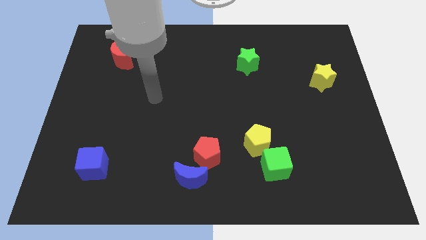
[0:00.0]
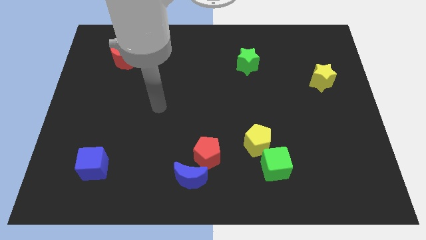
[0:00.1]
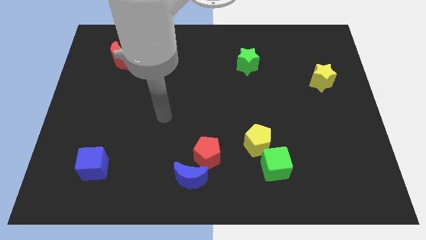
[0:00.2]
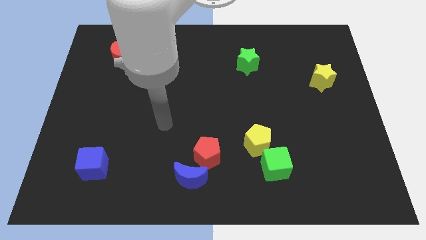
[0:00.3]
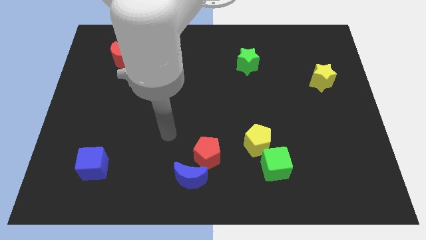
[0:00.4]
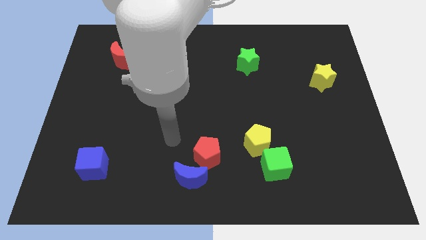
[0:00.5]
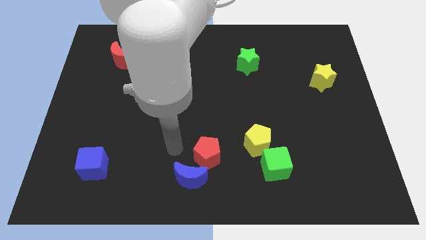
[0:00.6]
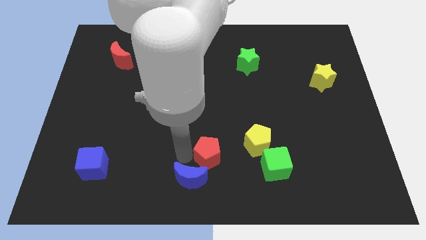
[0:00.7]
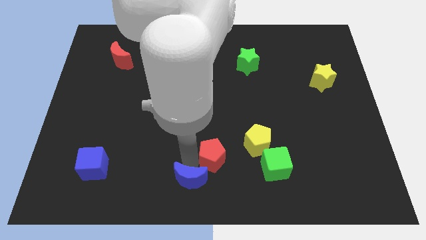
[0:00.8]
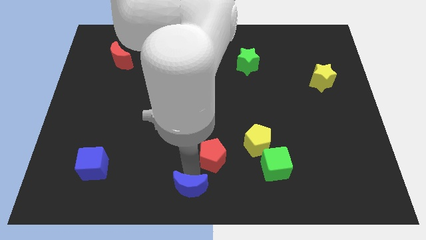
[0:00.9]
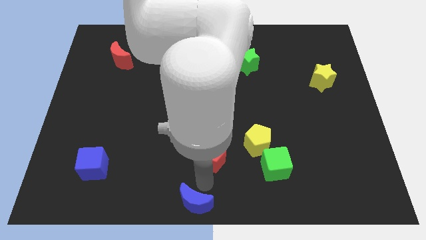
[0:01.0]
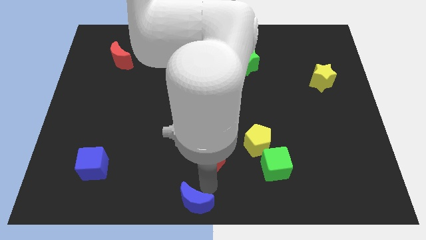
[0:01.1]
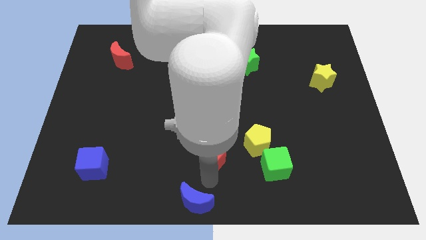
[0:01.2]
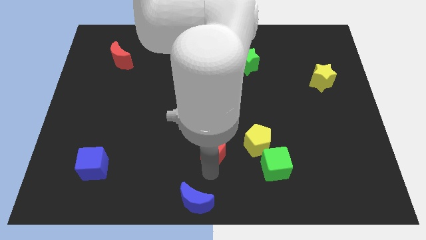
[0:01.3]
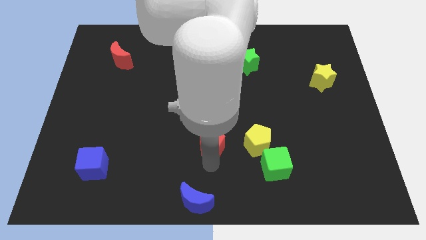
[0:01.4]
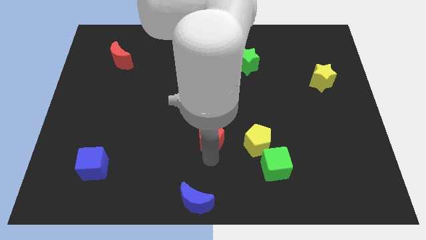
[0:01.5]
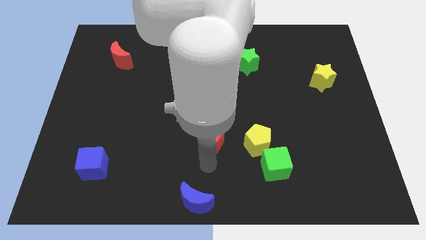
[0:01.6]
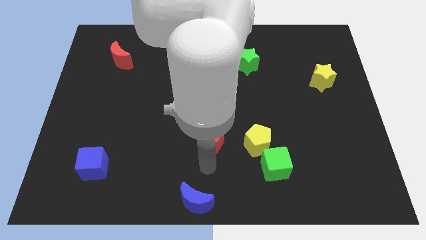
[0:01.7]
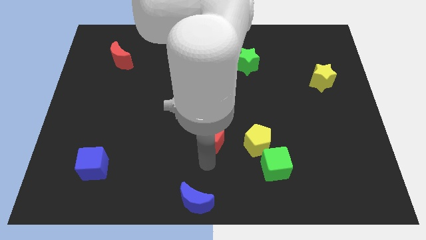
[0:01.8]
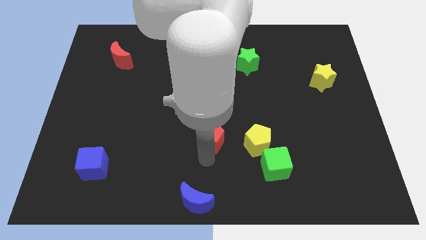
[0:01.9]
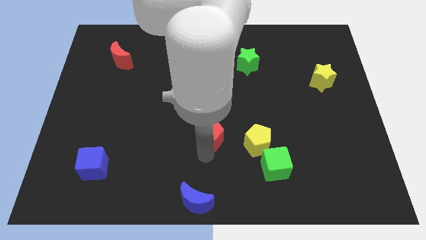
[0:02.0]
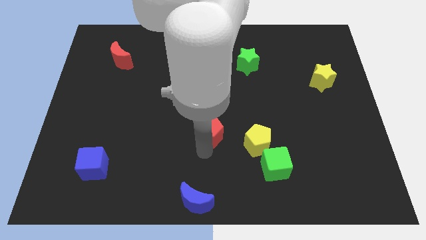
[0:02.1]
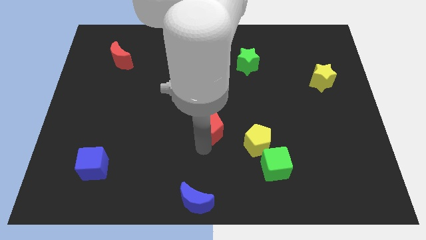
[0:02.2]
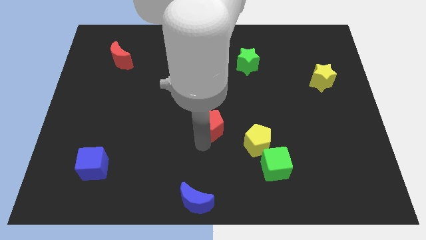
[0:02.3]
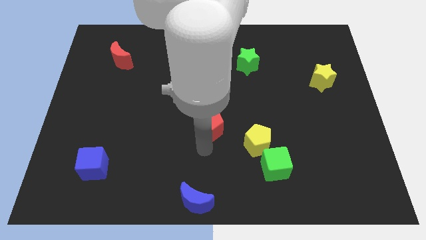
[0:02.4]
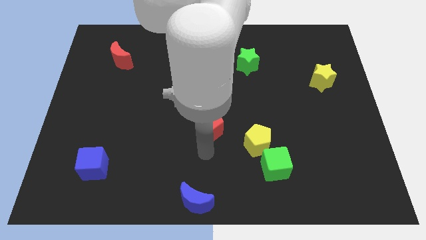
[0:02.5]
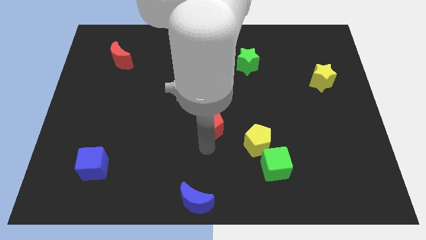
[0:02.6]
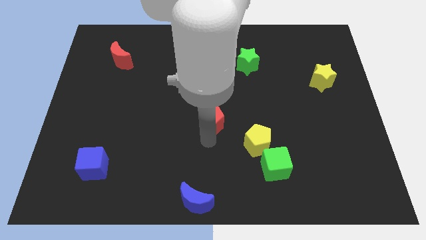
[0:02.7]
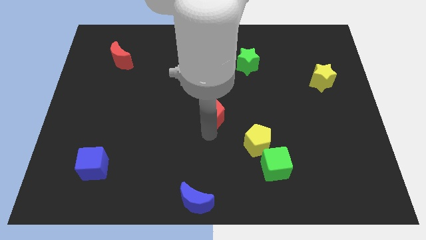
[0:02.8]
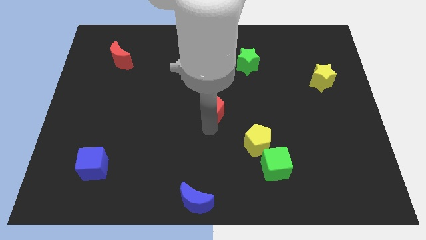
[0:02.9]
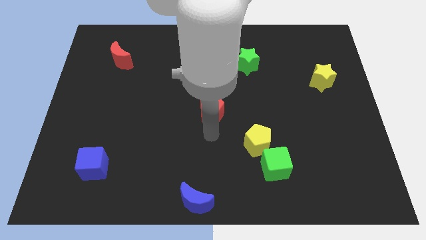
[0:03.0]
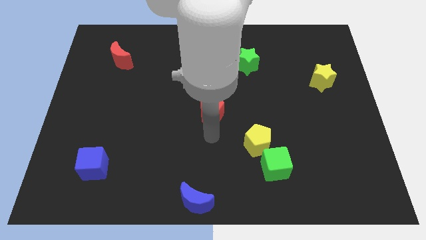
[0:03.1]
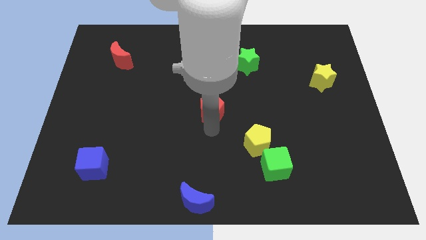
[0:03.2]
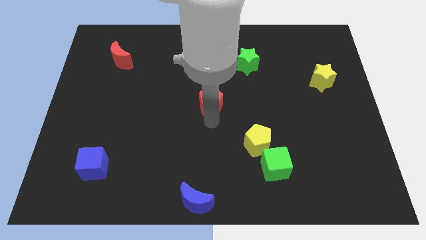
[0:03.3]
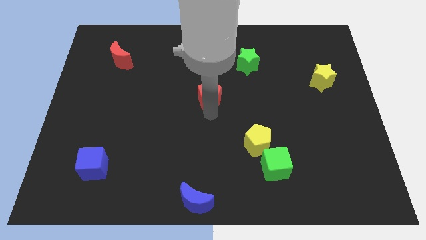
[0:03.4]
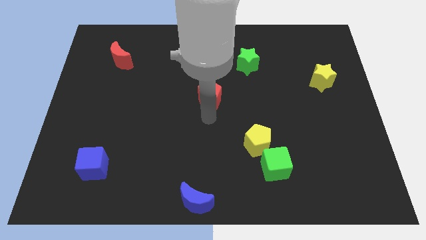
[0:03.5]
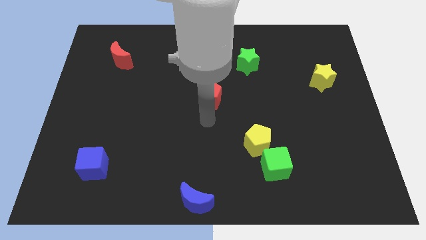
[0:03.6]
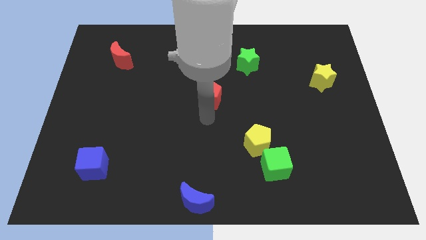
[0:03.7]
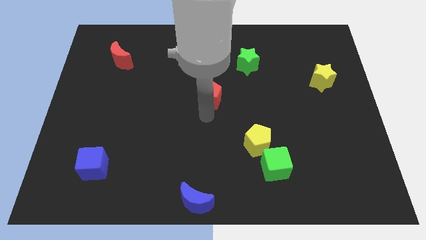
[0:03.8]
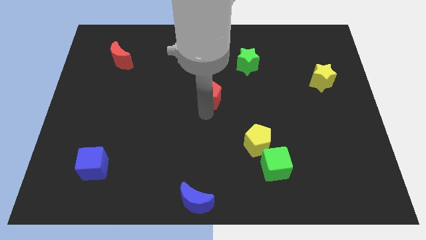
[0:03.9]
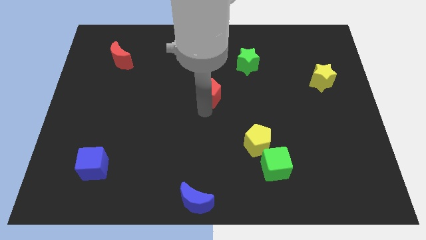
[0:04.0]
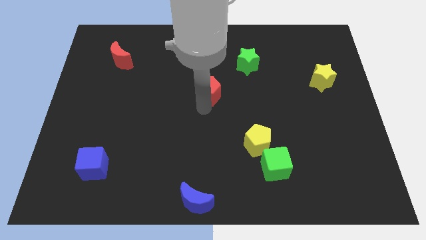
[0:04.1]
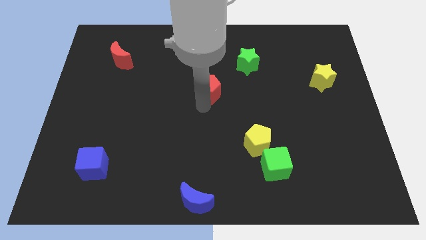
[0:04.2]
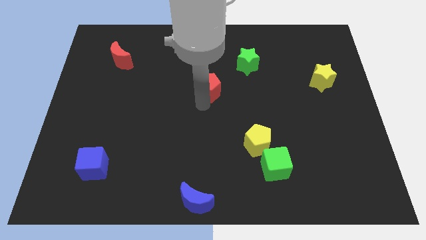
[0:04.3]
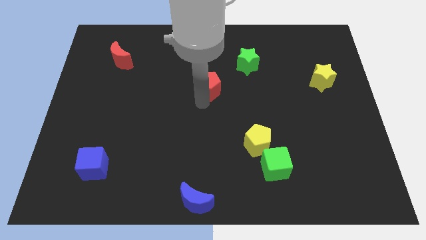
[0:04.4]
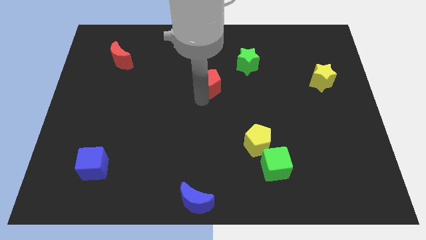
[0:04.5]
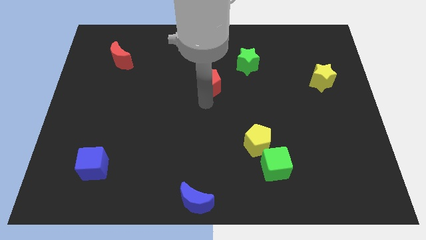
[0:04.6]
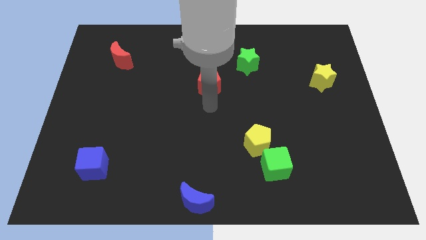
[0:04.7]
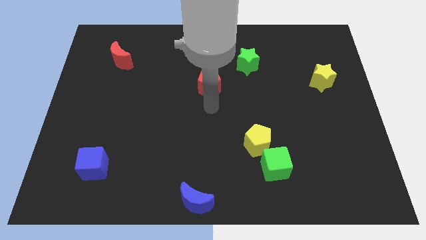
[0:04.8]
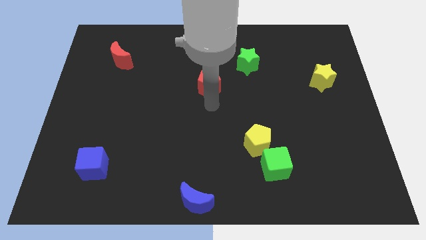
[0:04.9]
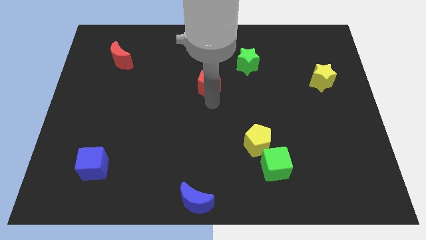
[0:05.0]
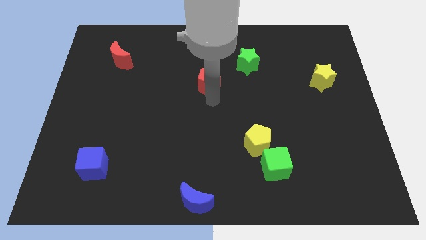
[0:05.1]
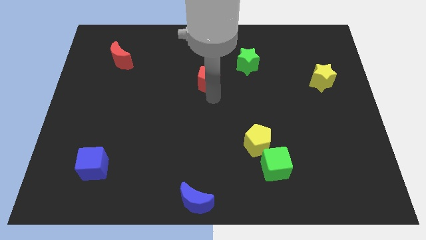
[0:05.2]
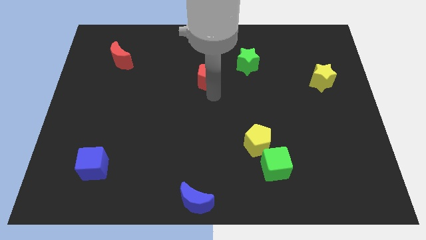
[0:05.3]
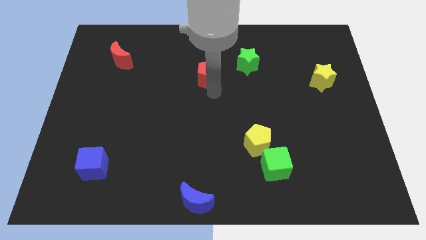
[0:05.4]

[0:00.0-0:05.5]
push the red pentagon to the left side of the green star

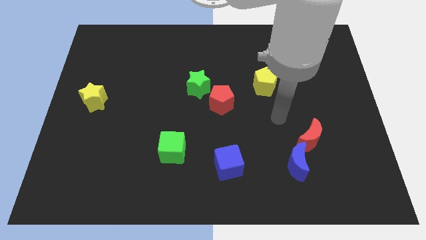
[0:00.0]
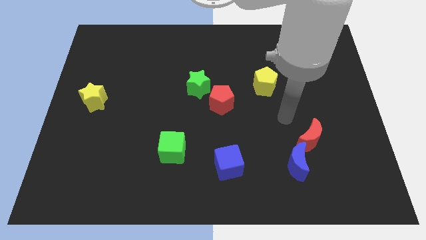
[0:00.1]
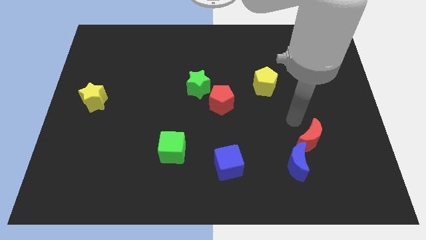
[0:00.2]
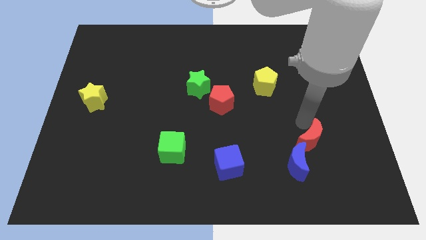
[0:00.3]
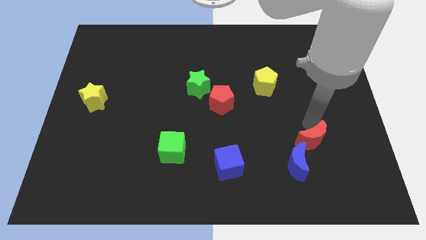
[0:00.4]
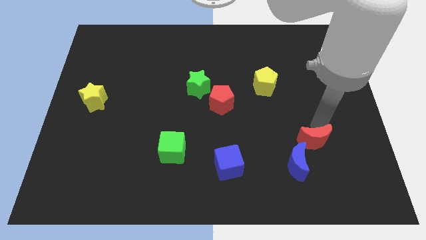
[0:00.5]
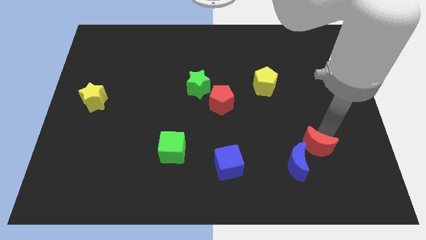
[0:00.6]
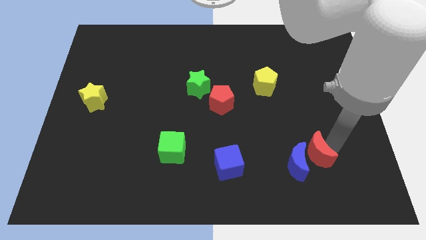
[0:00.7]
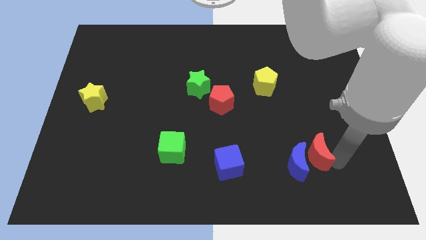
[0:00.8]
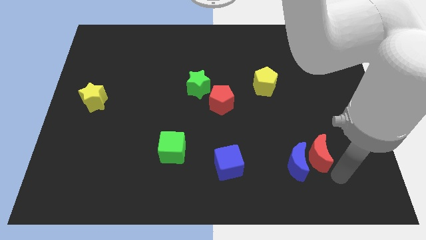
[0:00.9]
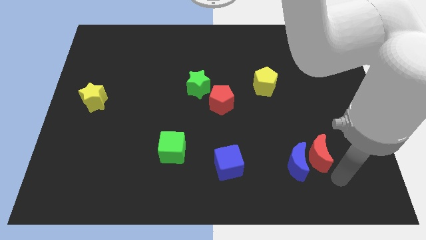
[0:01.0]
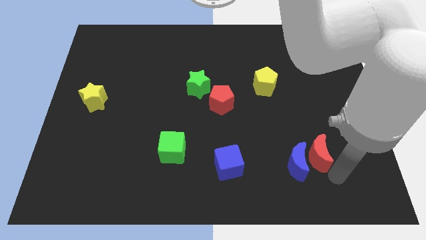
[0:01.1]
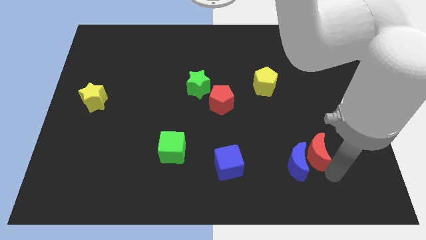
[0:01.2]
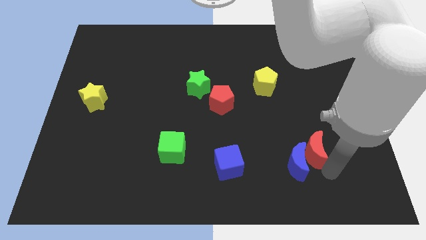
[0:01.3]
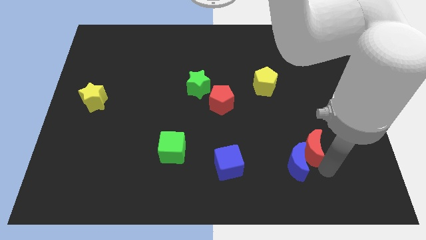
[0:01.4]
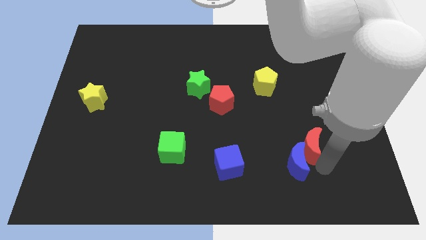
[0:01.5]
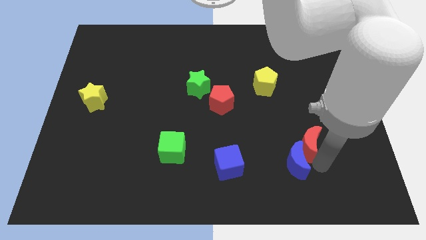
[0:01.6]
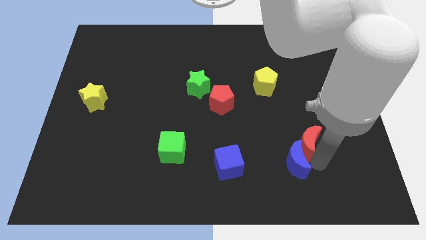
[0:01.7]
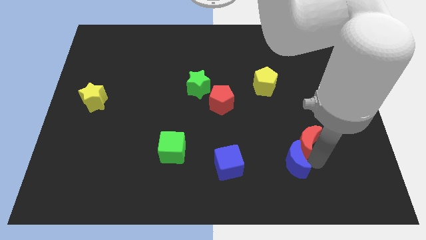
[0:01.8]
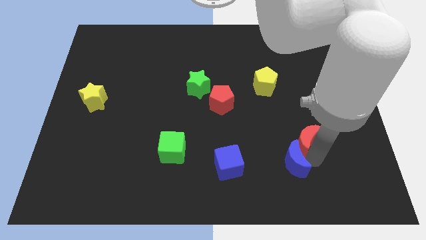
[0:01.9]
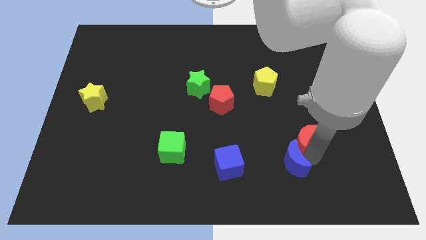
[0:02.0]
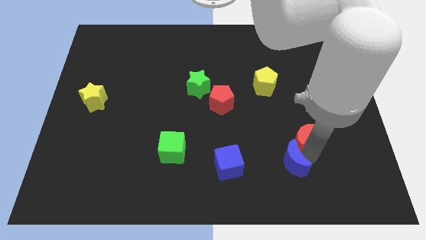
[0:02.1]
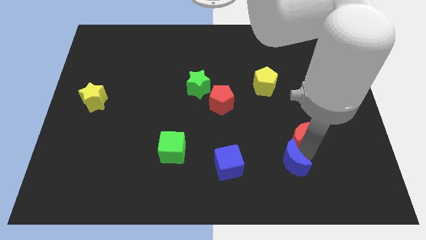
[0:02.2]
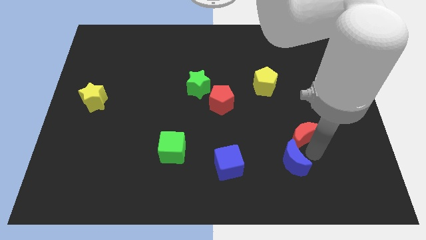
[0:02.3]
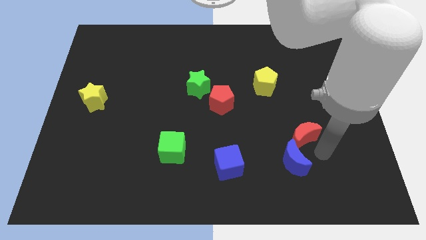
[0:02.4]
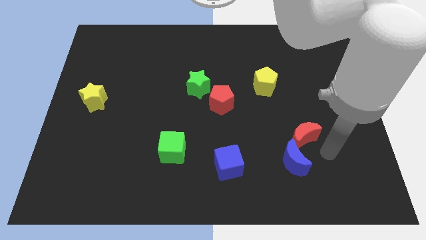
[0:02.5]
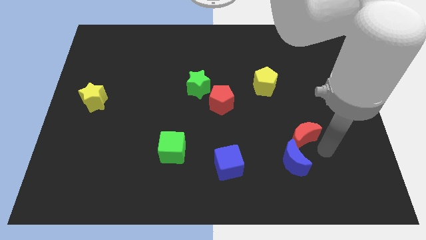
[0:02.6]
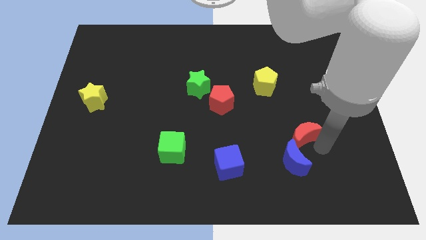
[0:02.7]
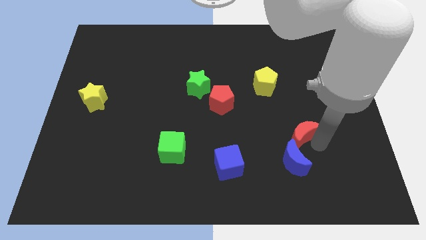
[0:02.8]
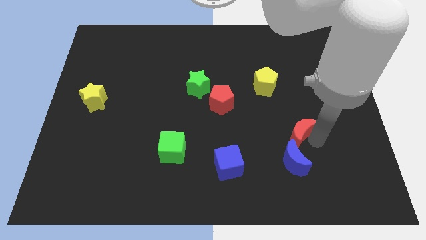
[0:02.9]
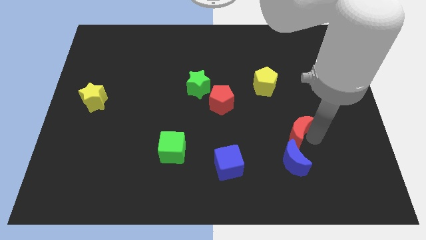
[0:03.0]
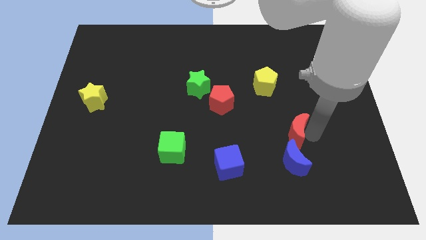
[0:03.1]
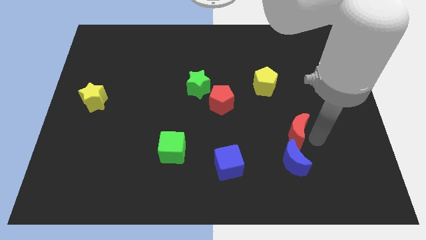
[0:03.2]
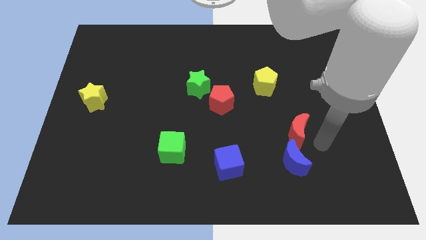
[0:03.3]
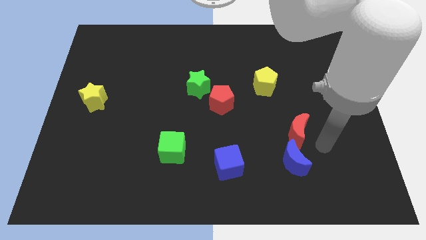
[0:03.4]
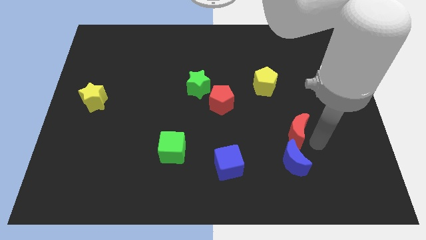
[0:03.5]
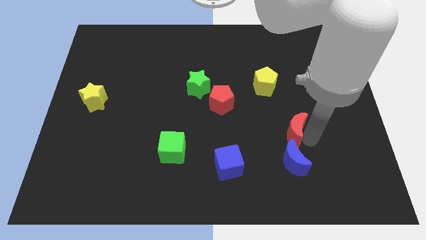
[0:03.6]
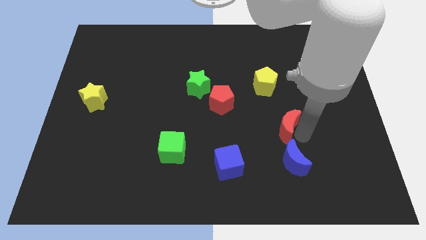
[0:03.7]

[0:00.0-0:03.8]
slide the red moon to the bottom side of the yellow pentagon
